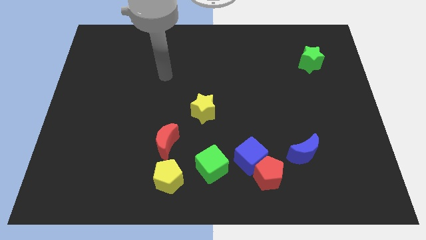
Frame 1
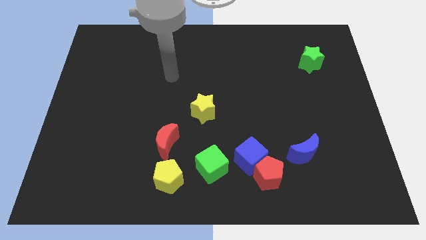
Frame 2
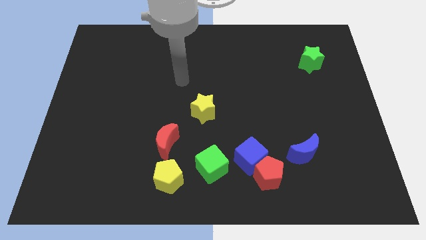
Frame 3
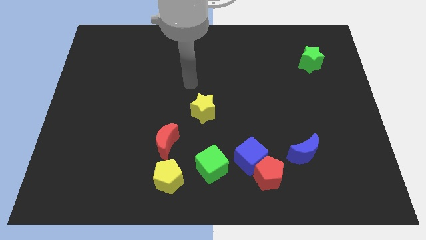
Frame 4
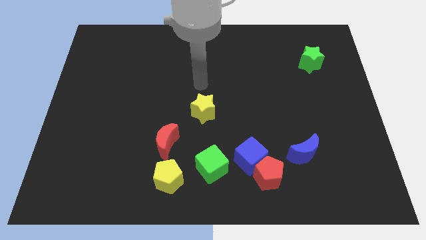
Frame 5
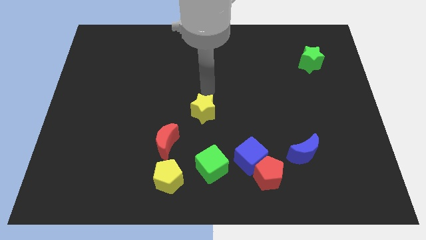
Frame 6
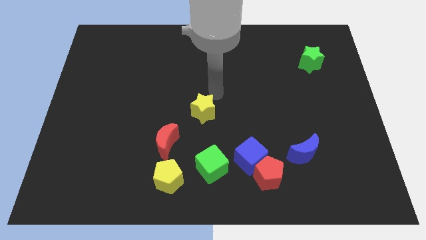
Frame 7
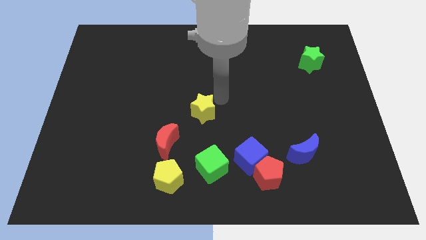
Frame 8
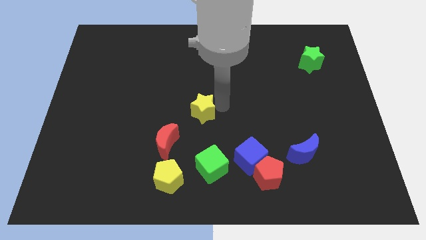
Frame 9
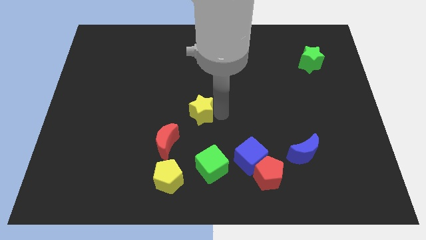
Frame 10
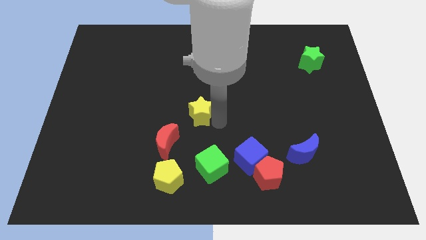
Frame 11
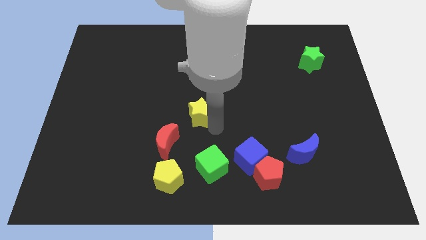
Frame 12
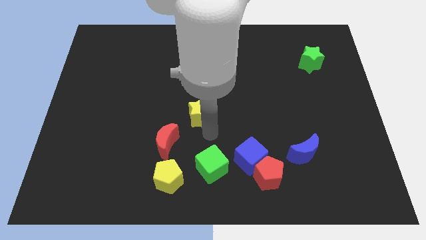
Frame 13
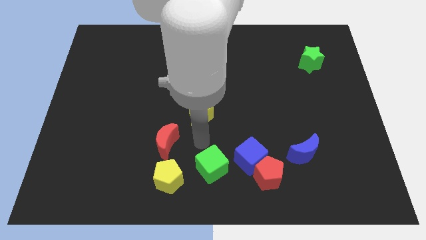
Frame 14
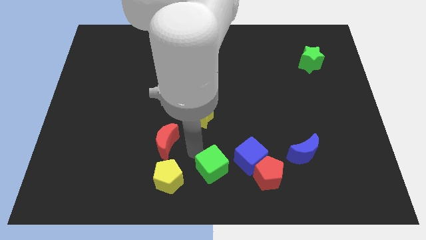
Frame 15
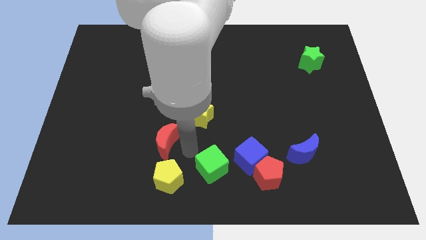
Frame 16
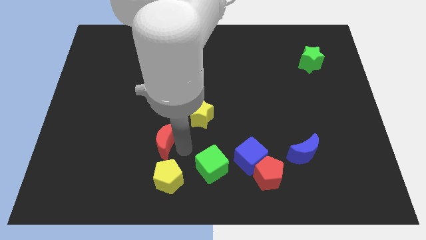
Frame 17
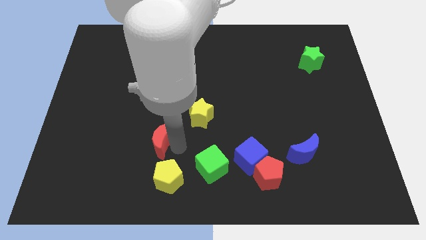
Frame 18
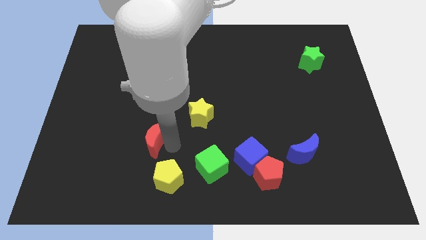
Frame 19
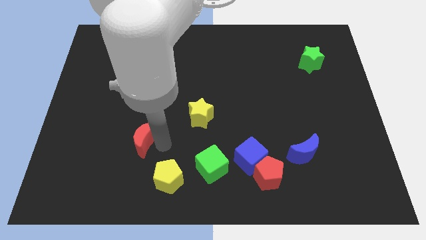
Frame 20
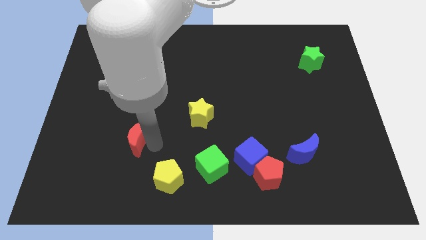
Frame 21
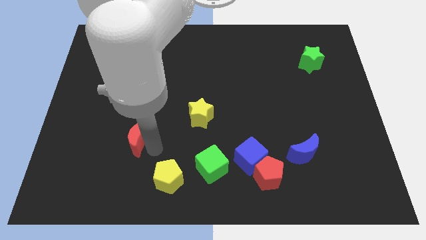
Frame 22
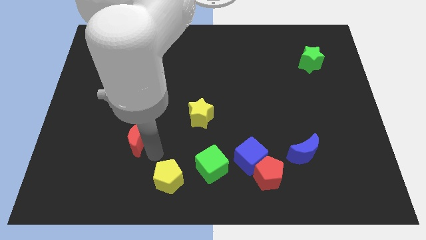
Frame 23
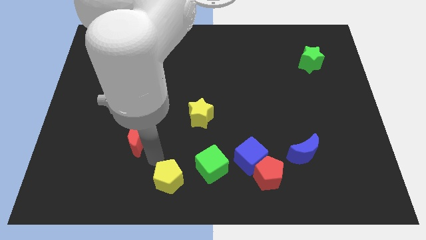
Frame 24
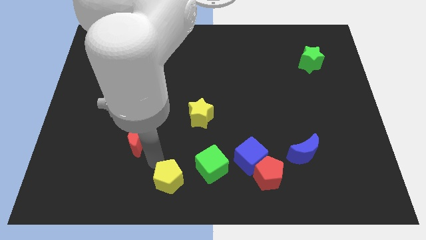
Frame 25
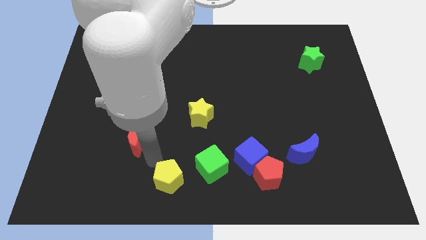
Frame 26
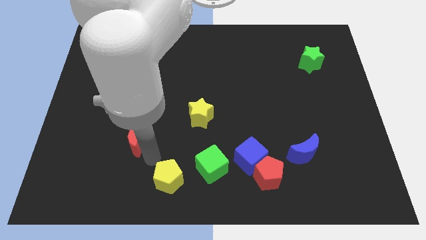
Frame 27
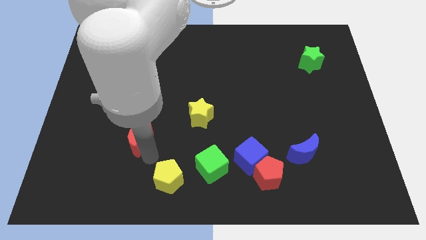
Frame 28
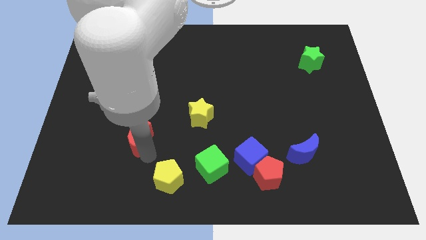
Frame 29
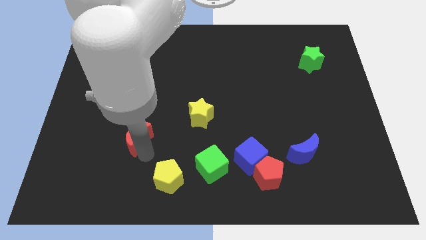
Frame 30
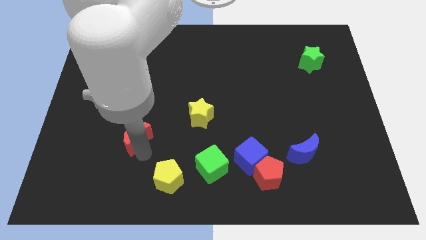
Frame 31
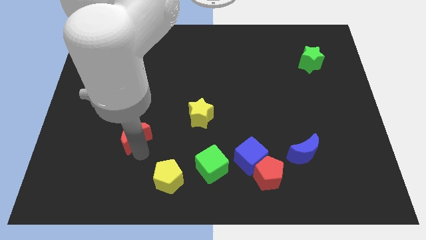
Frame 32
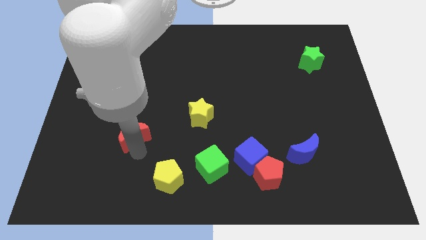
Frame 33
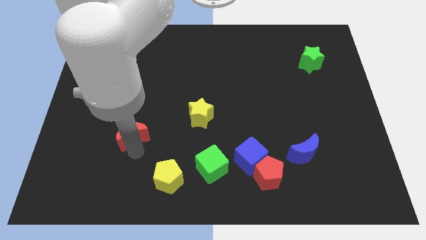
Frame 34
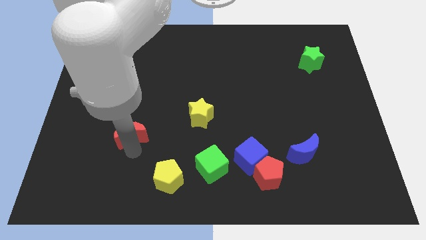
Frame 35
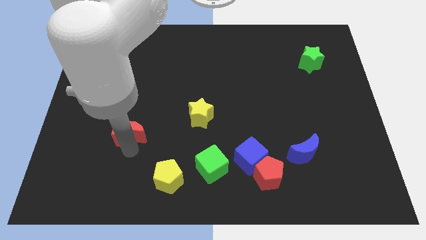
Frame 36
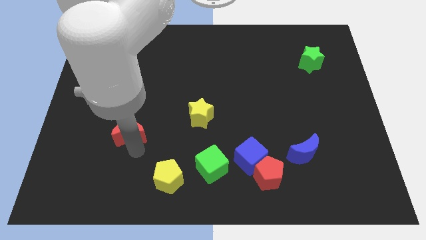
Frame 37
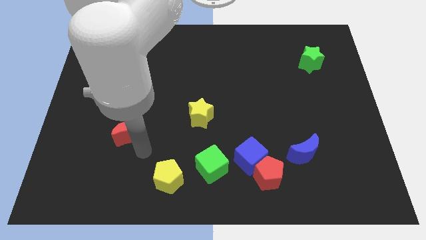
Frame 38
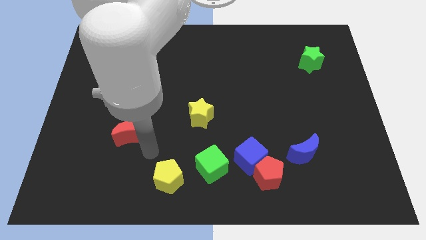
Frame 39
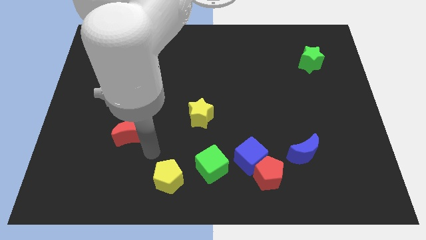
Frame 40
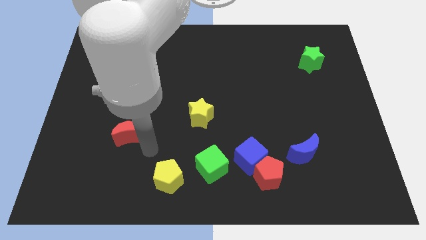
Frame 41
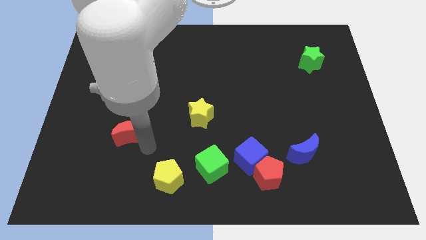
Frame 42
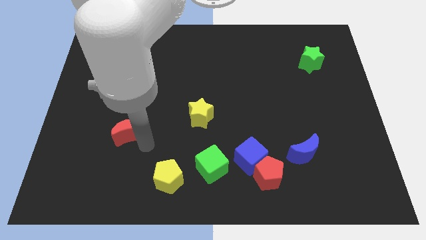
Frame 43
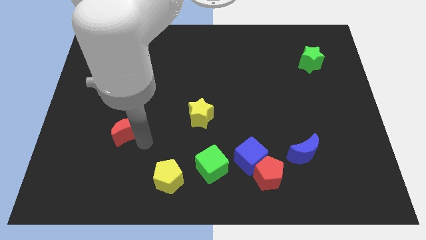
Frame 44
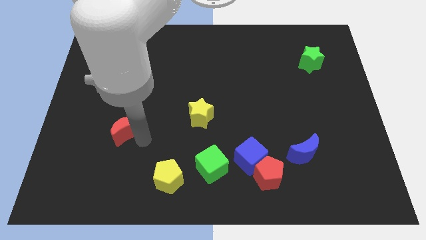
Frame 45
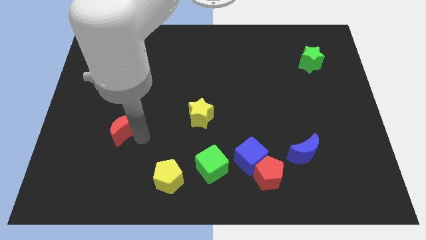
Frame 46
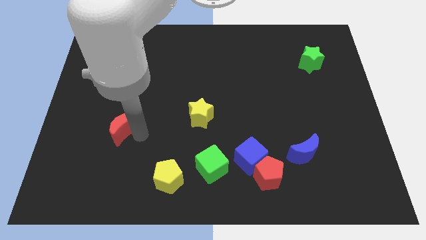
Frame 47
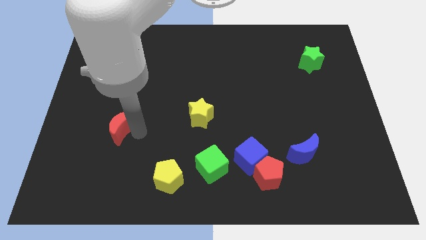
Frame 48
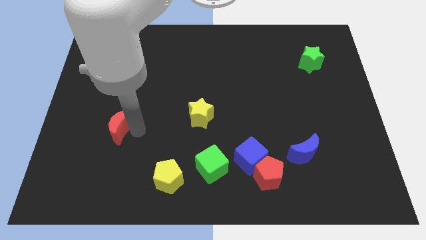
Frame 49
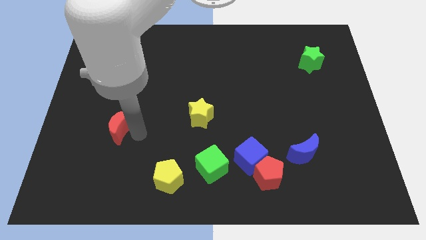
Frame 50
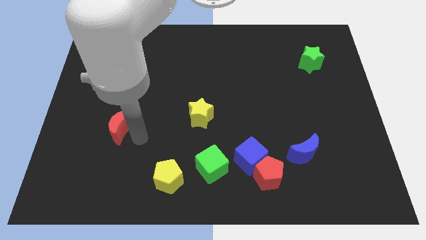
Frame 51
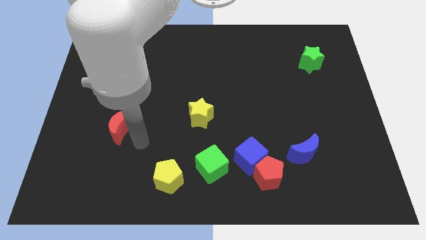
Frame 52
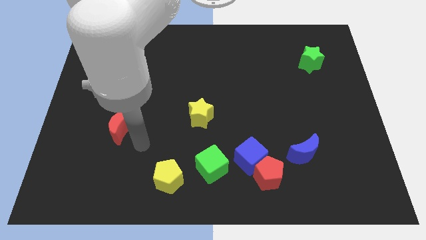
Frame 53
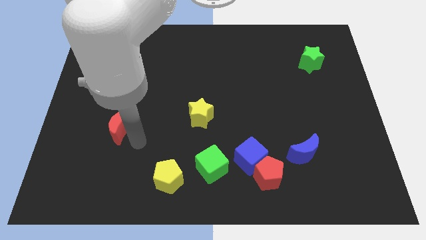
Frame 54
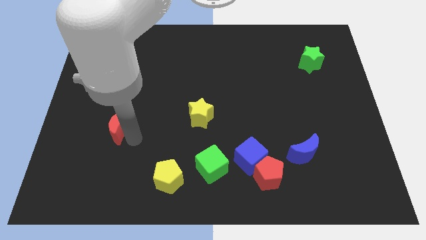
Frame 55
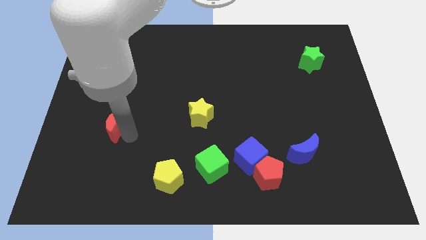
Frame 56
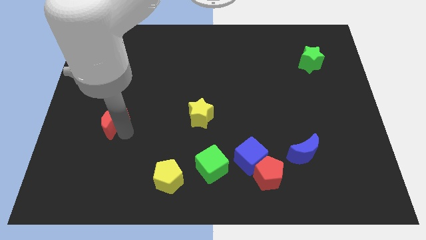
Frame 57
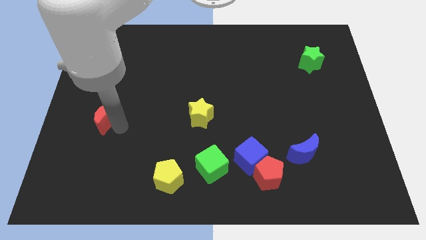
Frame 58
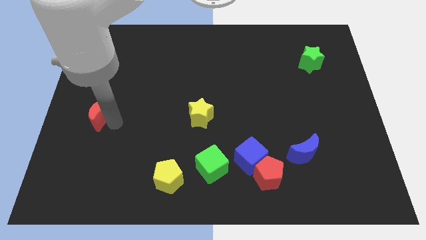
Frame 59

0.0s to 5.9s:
slide the red moon to the left side of the board

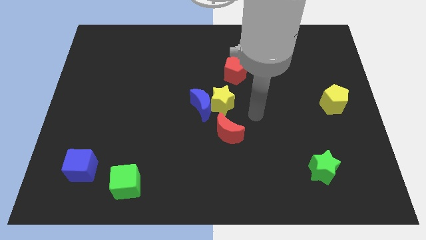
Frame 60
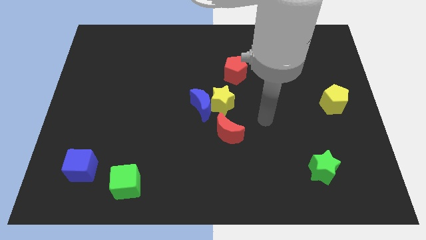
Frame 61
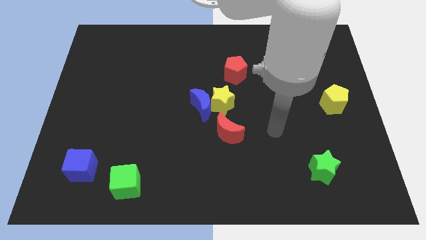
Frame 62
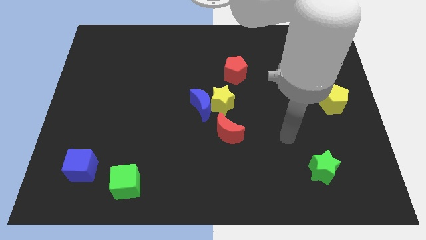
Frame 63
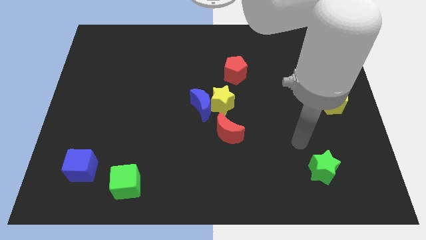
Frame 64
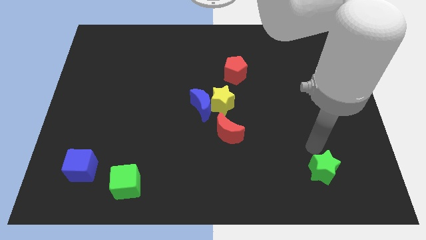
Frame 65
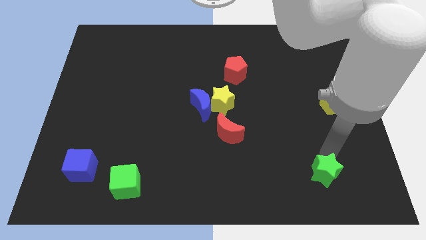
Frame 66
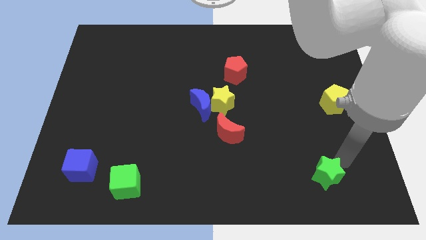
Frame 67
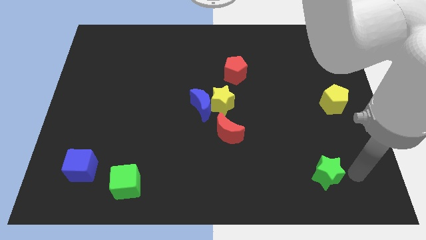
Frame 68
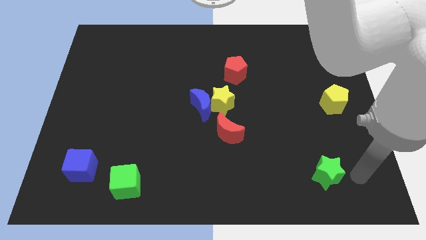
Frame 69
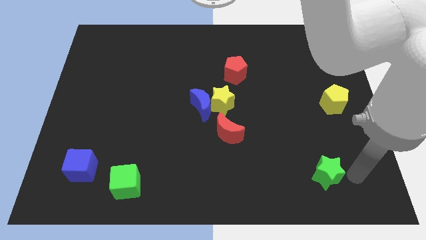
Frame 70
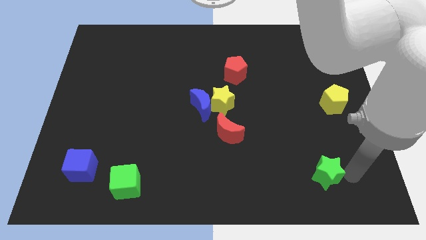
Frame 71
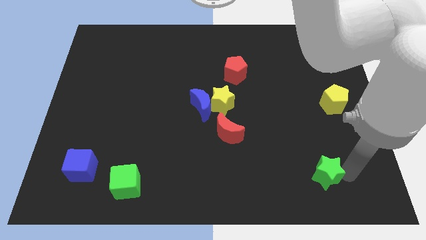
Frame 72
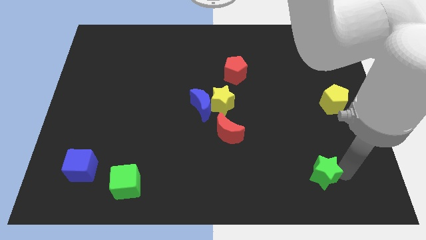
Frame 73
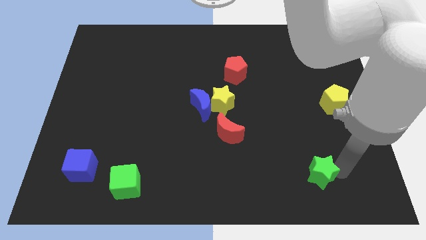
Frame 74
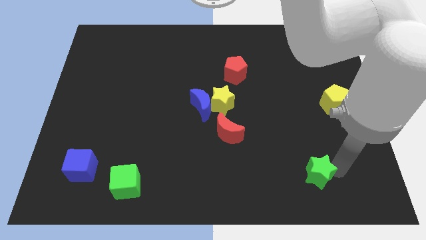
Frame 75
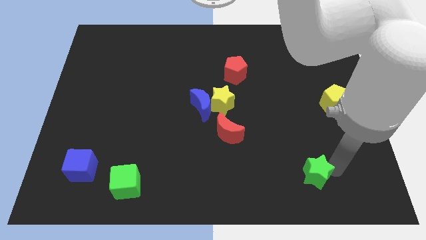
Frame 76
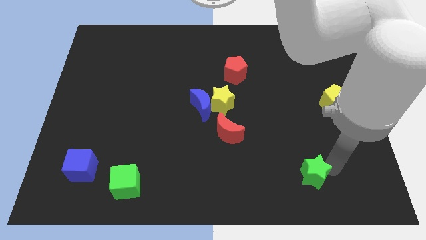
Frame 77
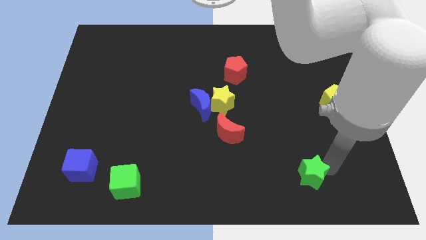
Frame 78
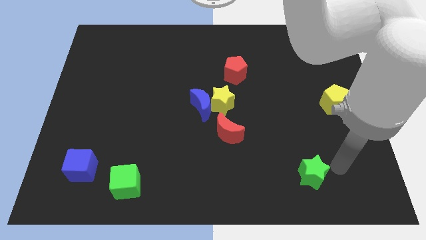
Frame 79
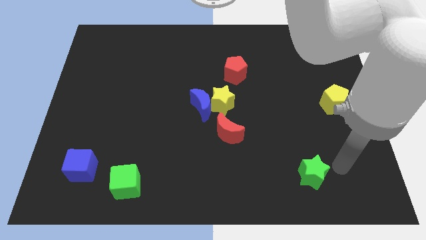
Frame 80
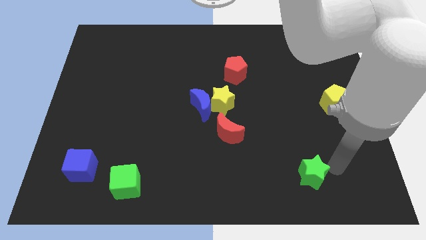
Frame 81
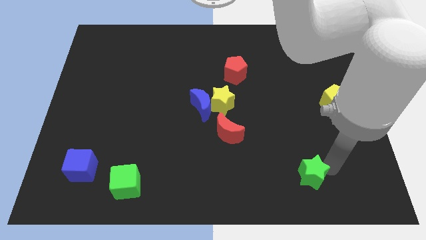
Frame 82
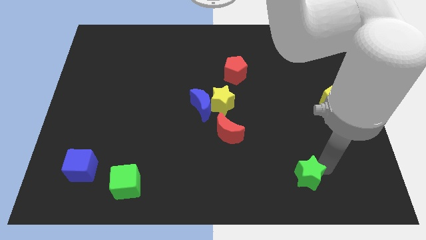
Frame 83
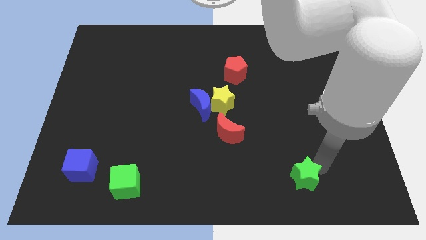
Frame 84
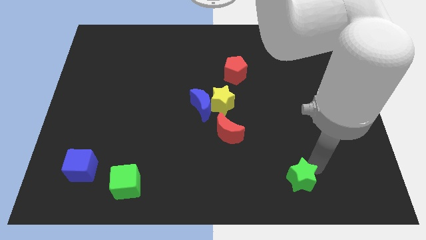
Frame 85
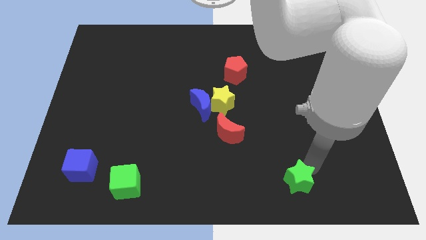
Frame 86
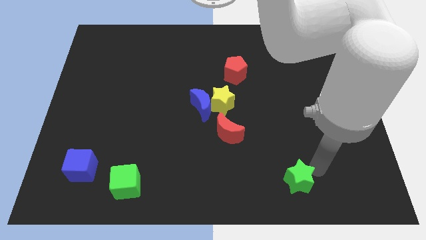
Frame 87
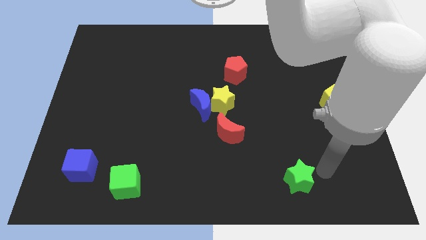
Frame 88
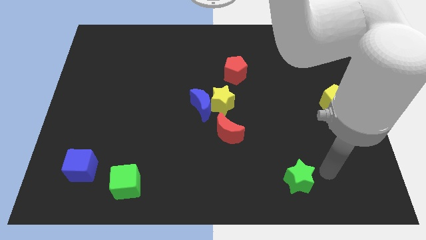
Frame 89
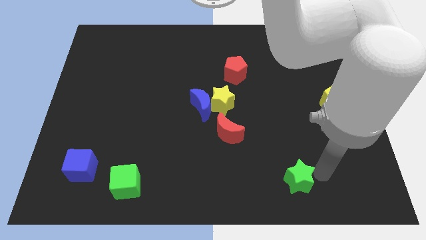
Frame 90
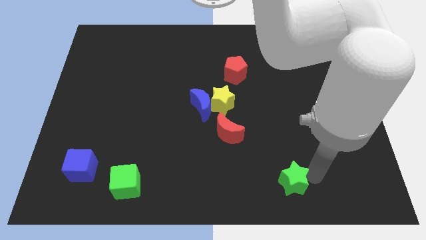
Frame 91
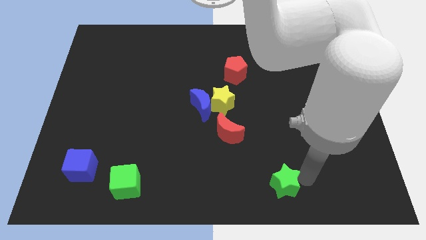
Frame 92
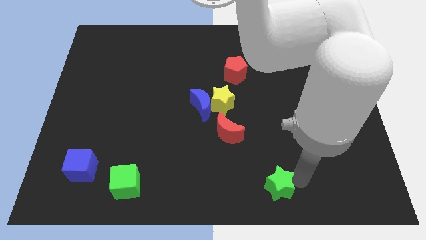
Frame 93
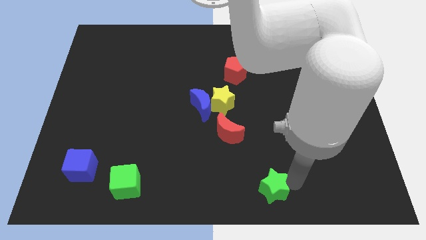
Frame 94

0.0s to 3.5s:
slide the green star to the bottom side
